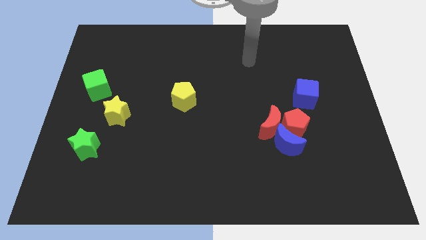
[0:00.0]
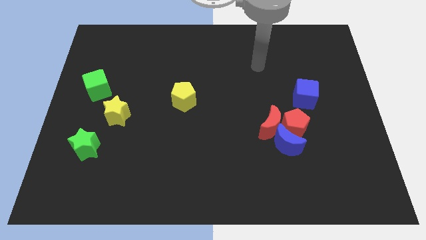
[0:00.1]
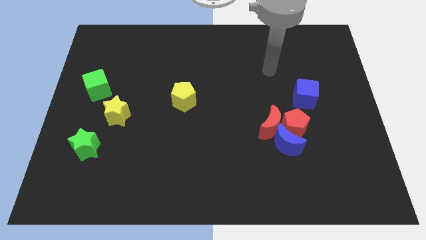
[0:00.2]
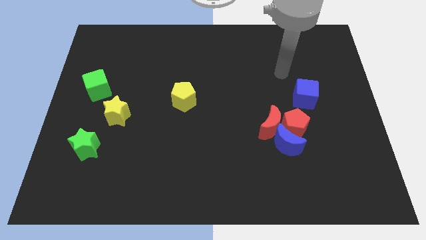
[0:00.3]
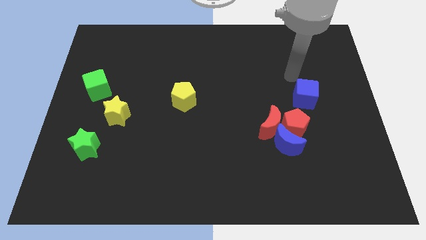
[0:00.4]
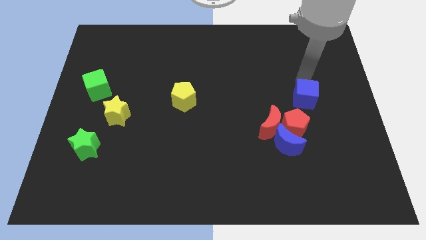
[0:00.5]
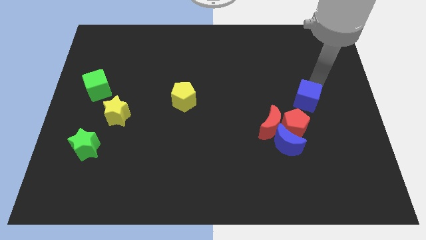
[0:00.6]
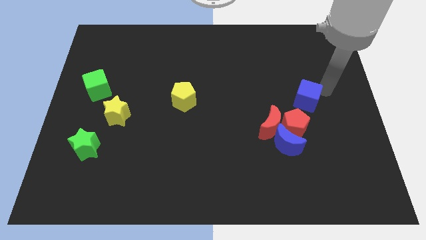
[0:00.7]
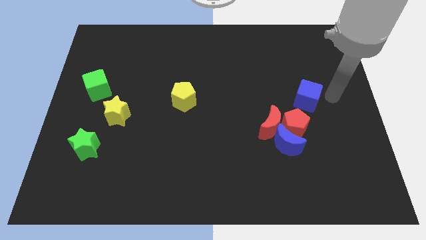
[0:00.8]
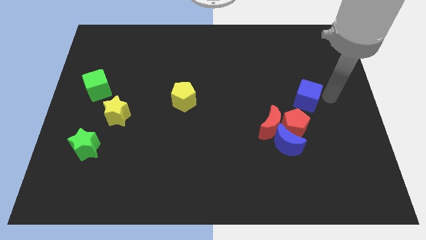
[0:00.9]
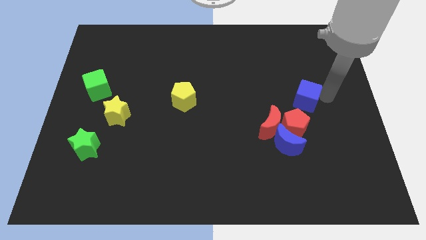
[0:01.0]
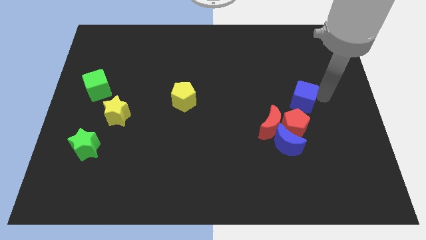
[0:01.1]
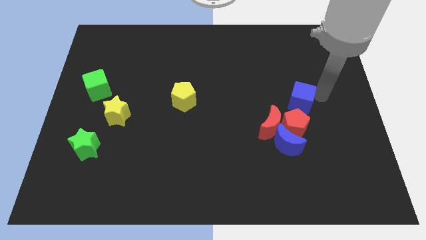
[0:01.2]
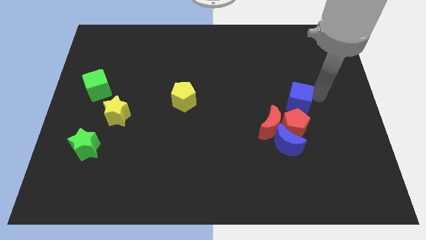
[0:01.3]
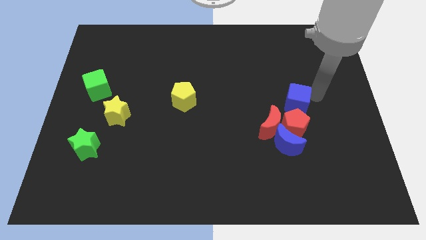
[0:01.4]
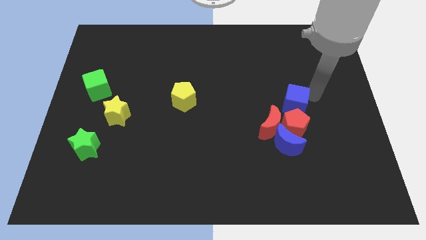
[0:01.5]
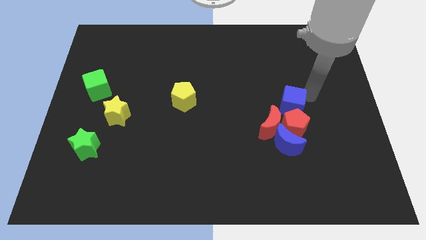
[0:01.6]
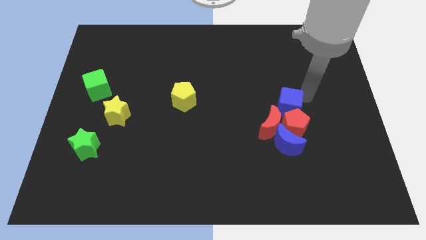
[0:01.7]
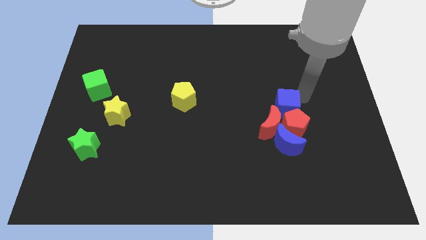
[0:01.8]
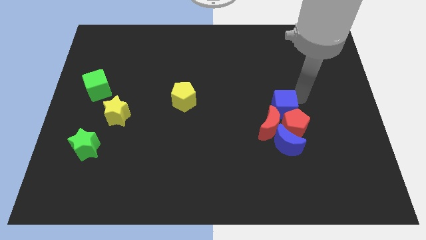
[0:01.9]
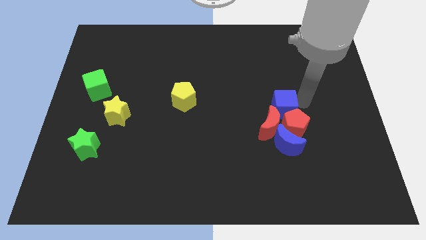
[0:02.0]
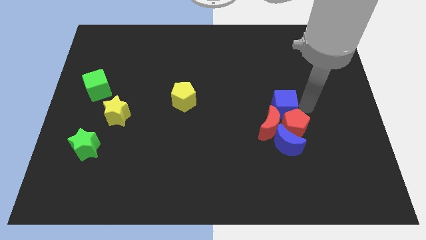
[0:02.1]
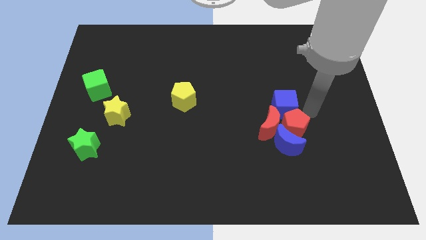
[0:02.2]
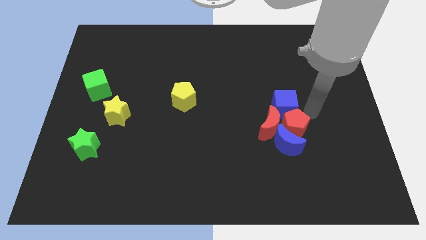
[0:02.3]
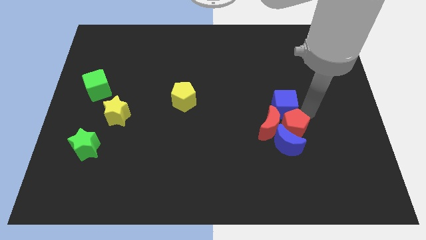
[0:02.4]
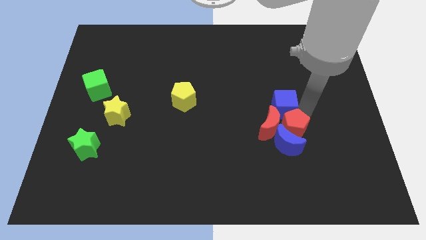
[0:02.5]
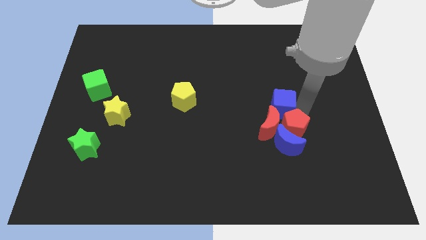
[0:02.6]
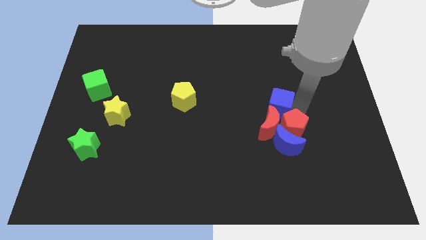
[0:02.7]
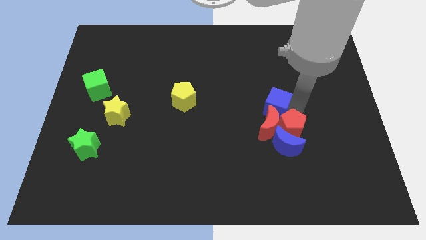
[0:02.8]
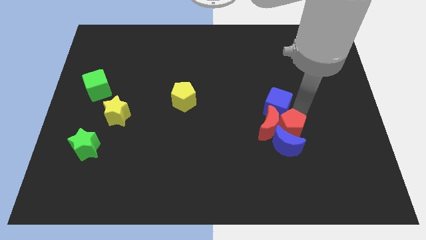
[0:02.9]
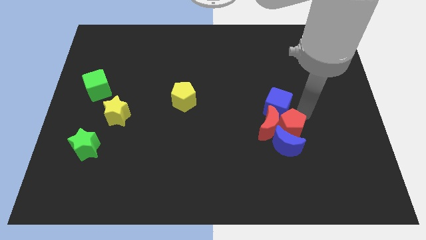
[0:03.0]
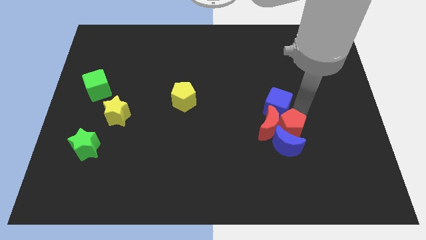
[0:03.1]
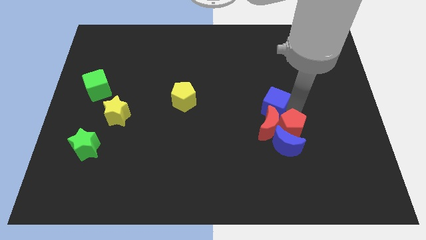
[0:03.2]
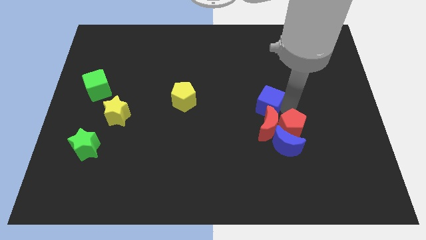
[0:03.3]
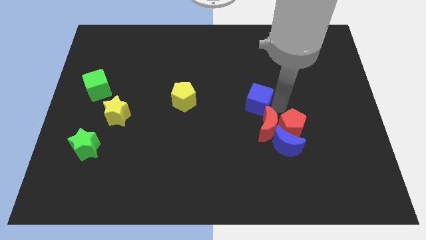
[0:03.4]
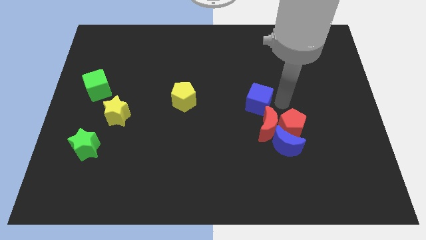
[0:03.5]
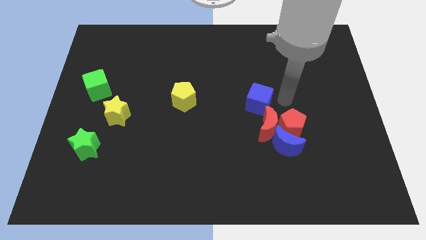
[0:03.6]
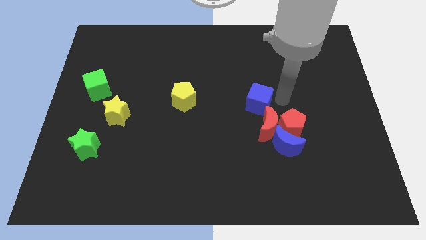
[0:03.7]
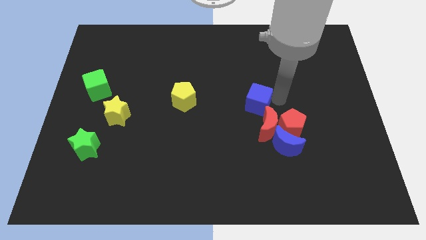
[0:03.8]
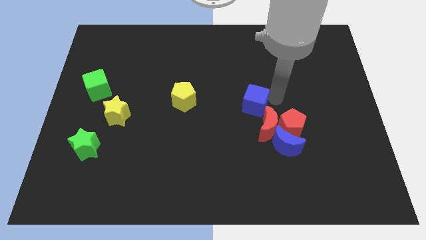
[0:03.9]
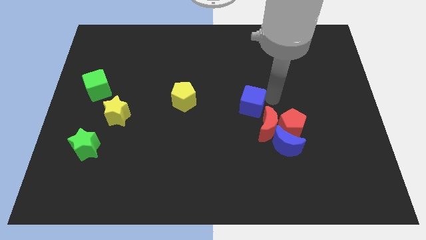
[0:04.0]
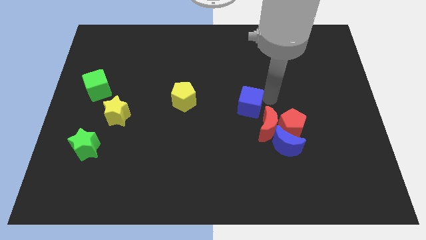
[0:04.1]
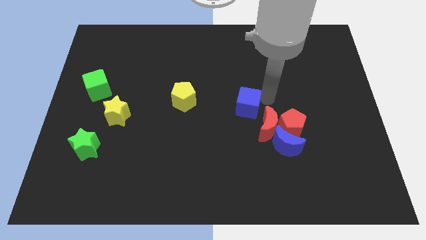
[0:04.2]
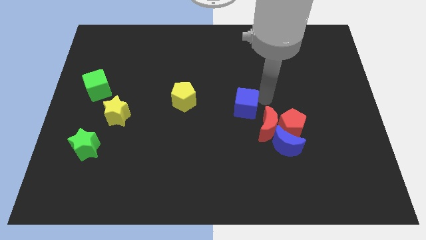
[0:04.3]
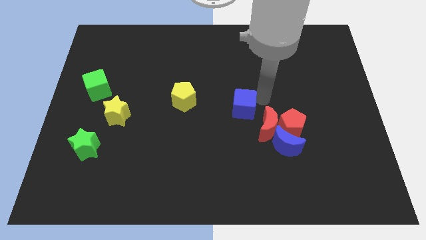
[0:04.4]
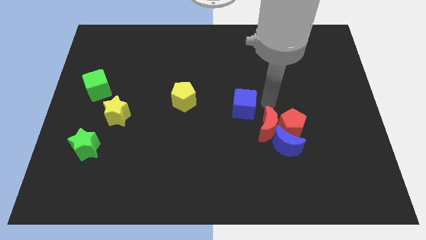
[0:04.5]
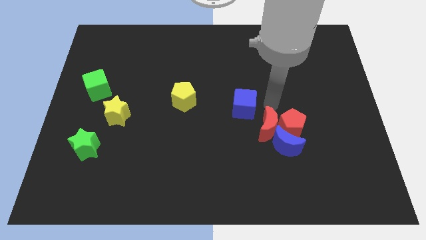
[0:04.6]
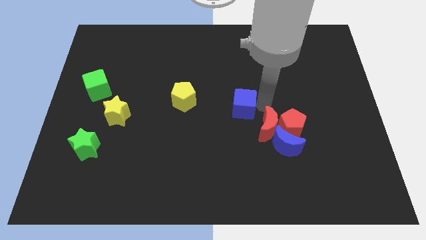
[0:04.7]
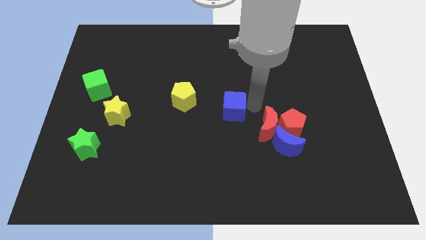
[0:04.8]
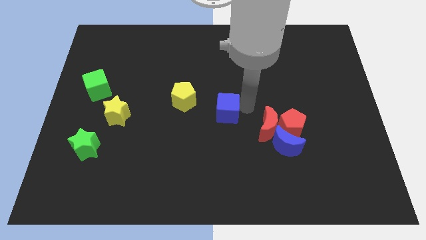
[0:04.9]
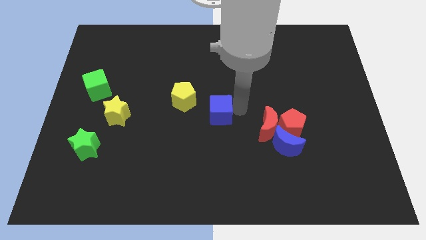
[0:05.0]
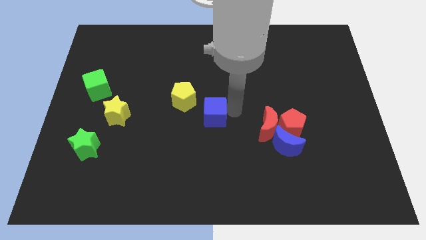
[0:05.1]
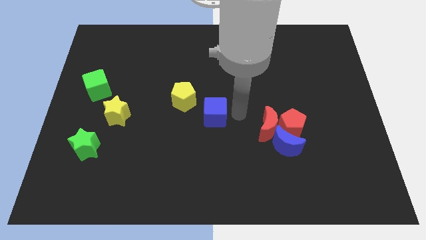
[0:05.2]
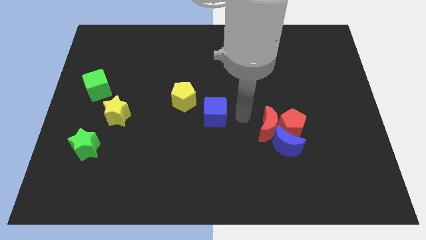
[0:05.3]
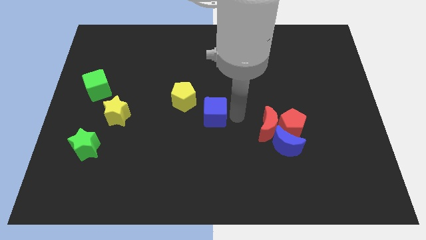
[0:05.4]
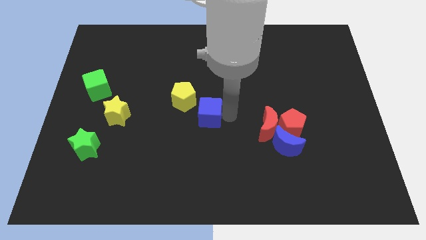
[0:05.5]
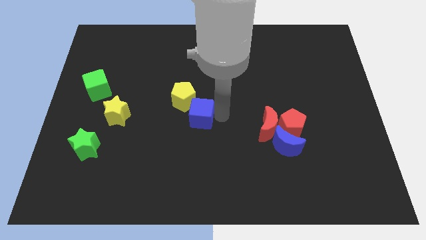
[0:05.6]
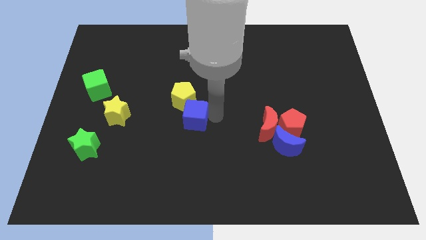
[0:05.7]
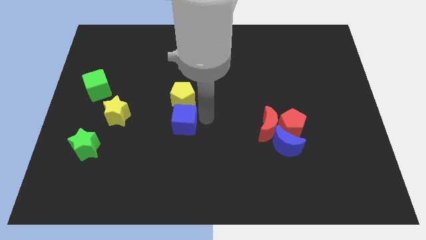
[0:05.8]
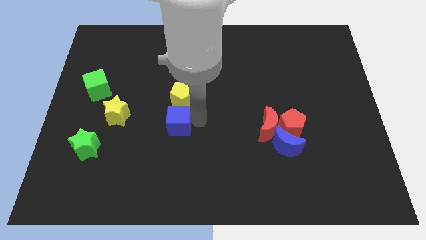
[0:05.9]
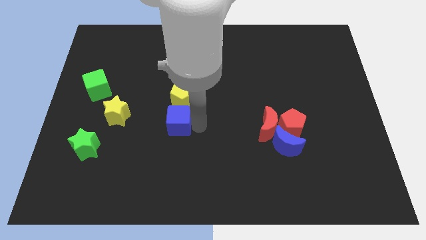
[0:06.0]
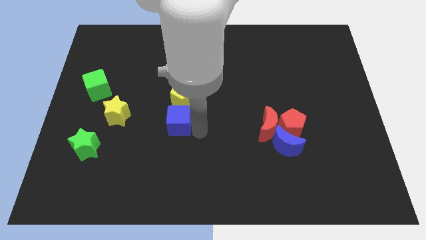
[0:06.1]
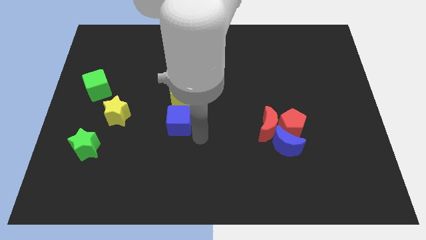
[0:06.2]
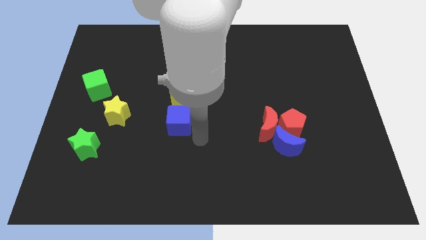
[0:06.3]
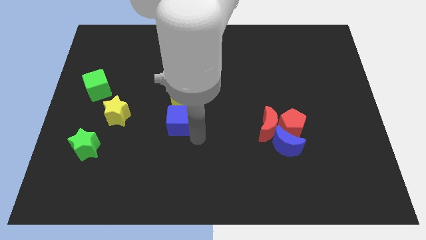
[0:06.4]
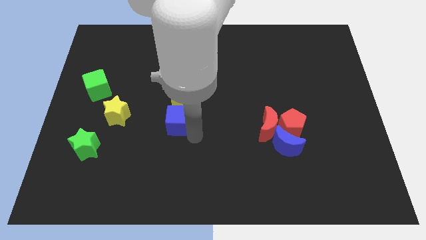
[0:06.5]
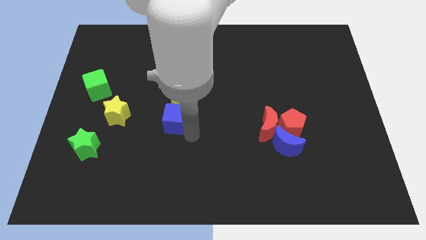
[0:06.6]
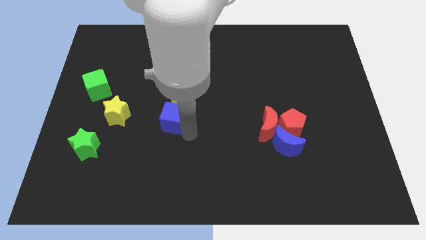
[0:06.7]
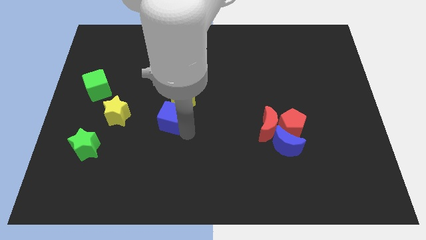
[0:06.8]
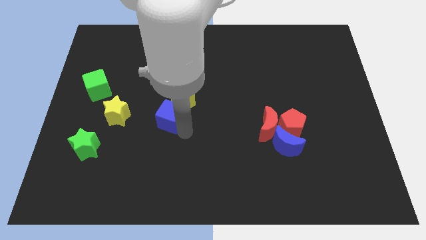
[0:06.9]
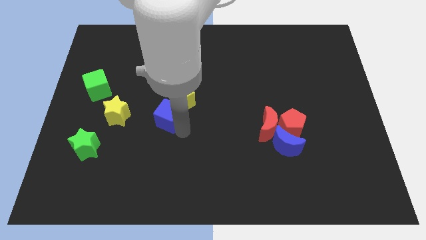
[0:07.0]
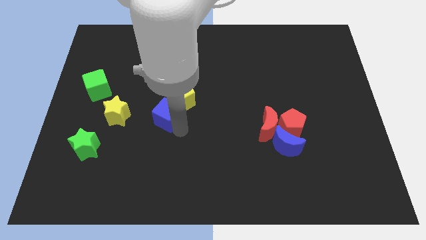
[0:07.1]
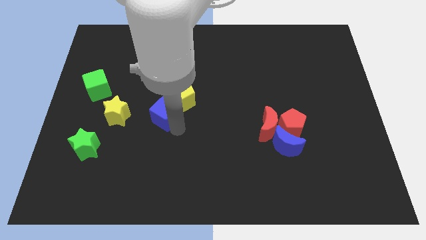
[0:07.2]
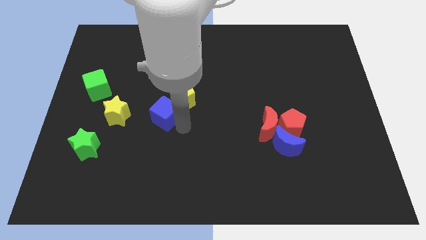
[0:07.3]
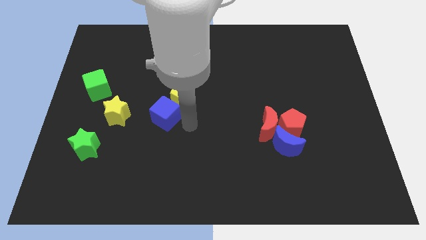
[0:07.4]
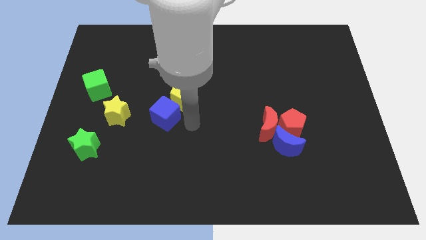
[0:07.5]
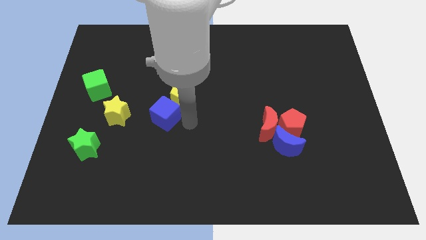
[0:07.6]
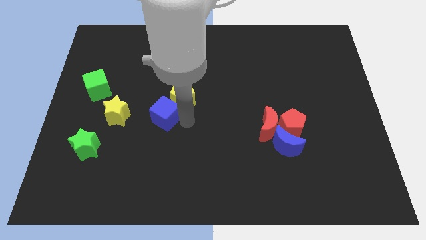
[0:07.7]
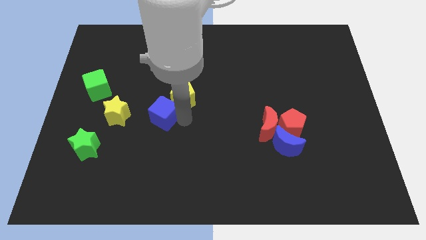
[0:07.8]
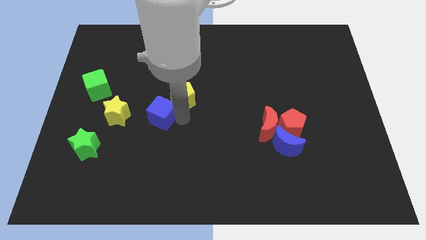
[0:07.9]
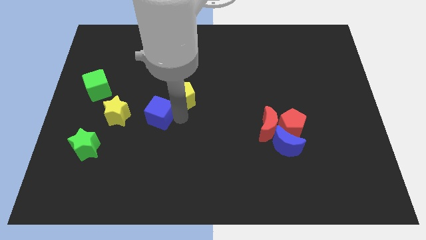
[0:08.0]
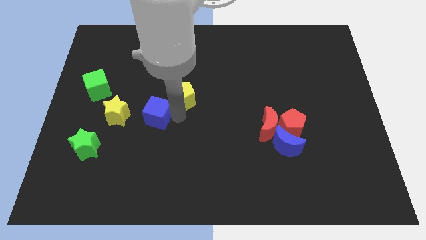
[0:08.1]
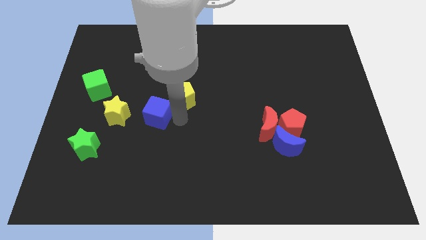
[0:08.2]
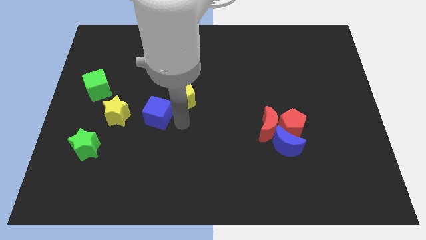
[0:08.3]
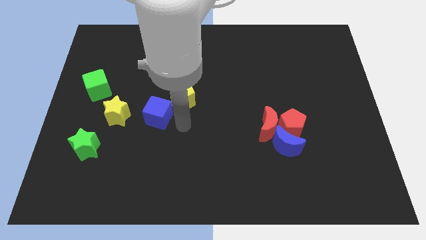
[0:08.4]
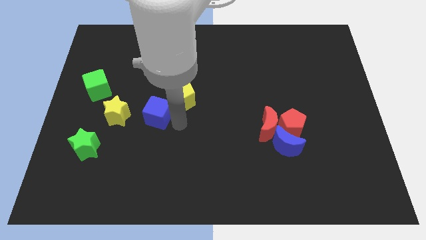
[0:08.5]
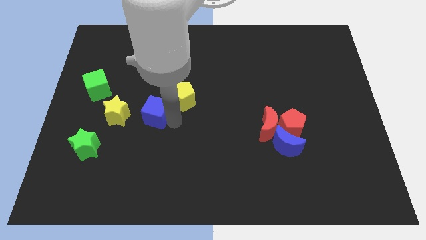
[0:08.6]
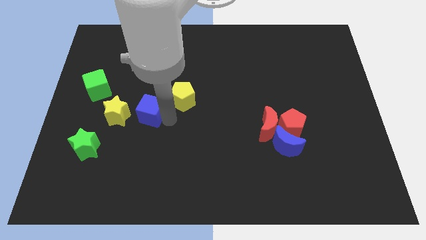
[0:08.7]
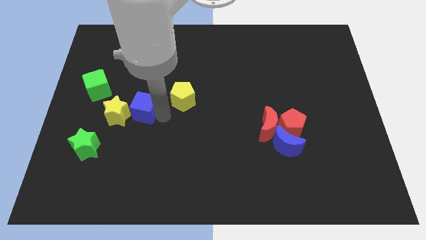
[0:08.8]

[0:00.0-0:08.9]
slide the blue cube towards the yellow star
